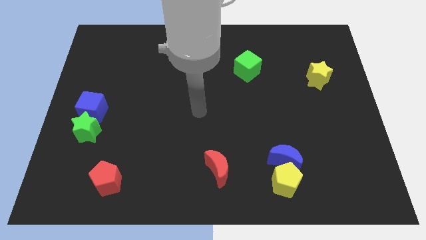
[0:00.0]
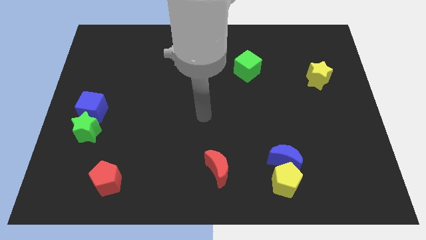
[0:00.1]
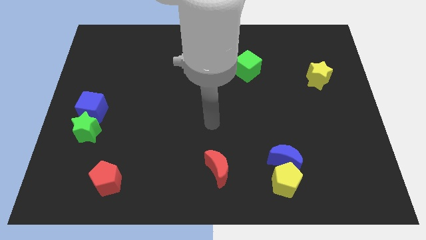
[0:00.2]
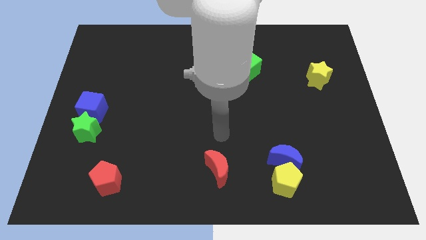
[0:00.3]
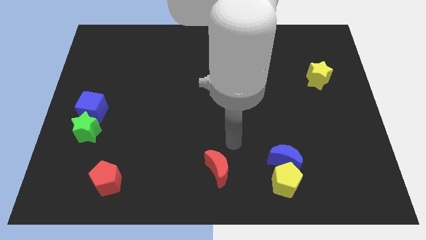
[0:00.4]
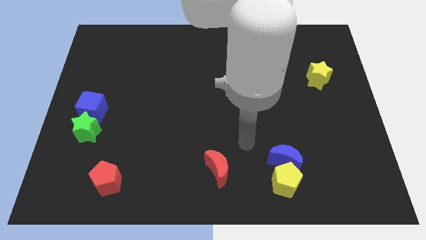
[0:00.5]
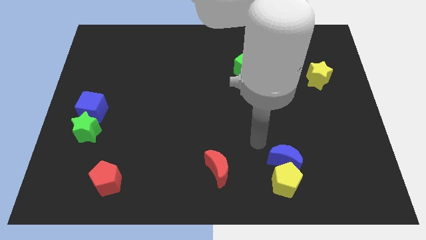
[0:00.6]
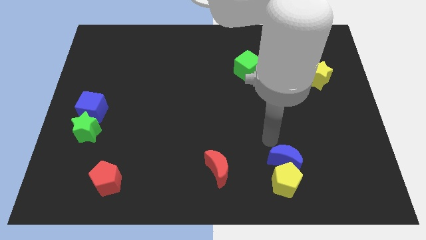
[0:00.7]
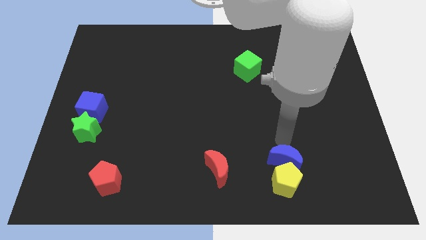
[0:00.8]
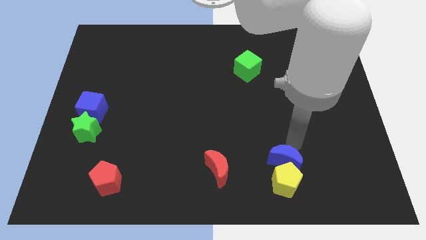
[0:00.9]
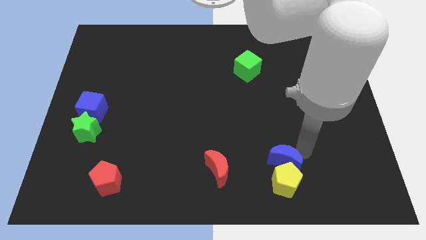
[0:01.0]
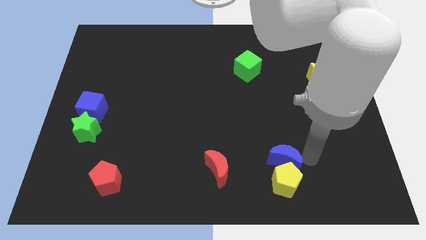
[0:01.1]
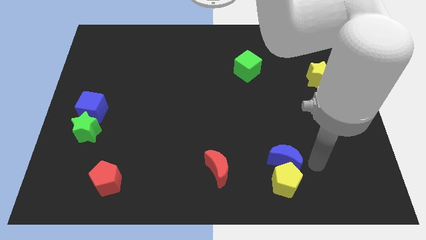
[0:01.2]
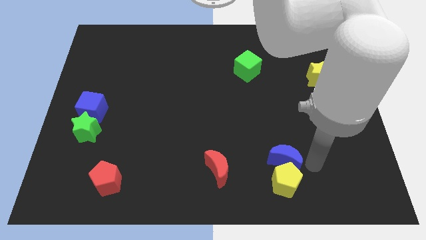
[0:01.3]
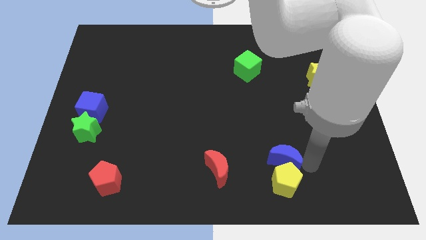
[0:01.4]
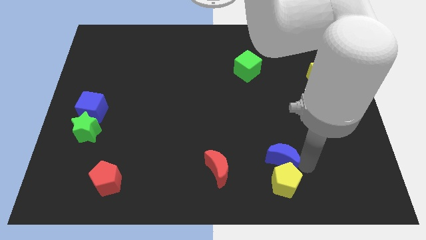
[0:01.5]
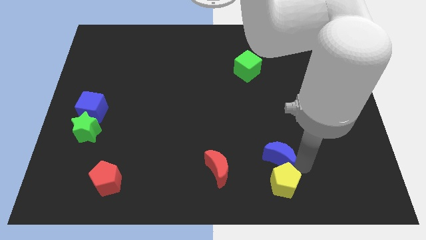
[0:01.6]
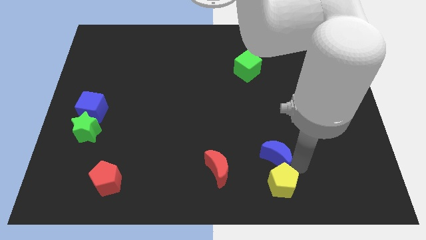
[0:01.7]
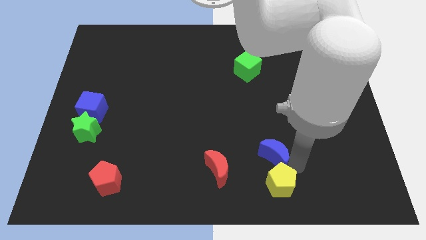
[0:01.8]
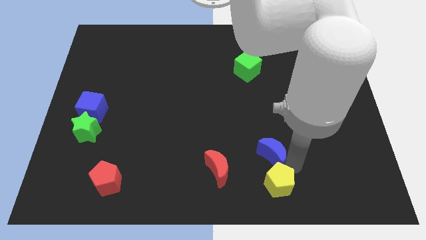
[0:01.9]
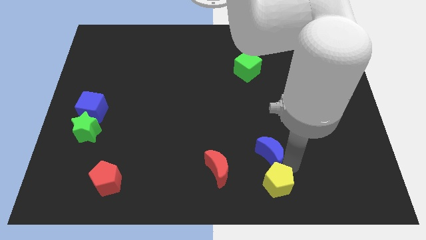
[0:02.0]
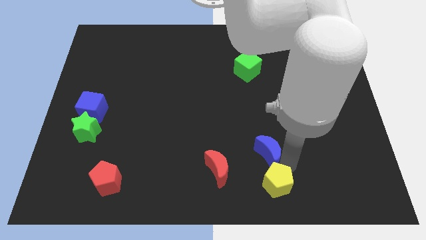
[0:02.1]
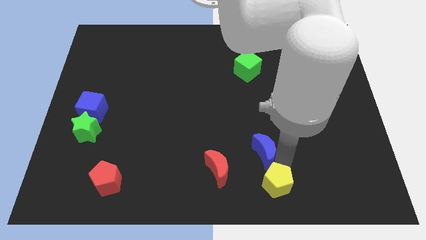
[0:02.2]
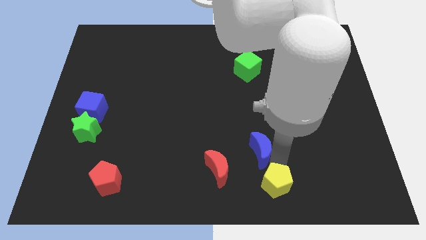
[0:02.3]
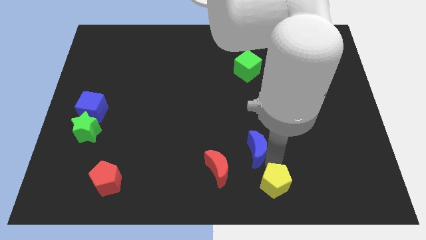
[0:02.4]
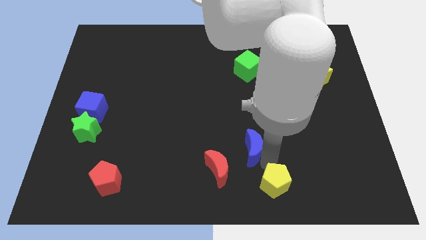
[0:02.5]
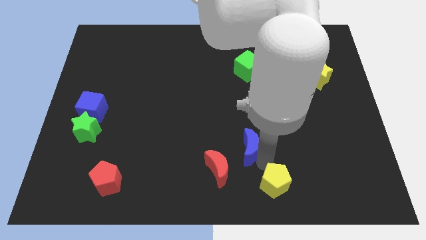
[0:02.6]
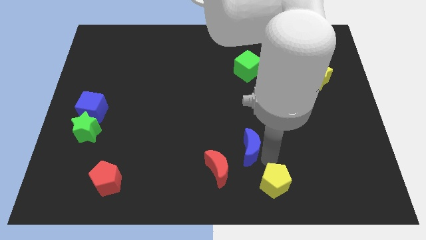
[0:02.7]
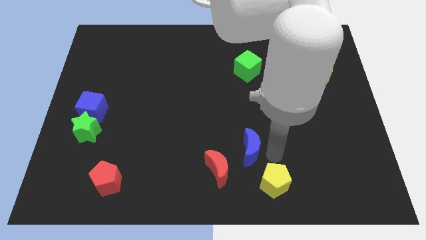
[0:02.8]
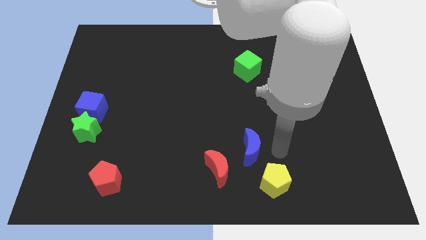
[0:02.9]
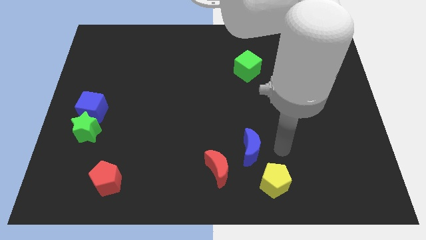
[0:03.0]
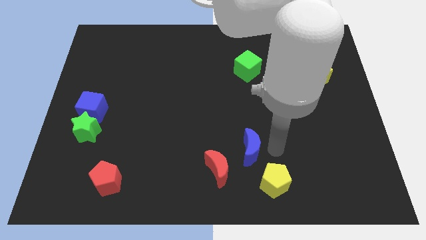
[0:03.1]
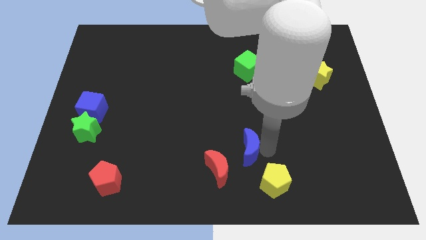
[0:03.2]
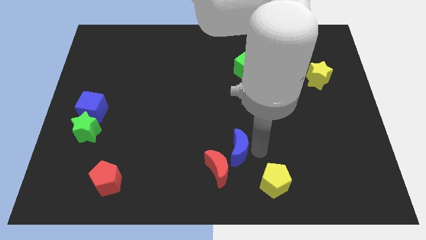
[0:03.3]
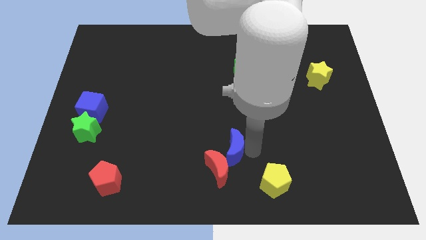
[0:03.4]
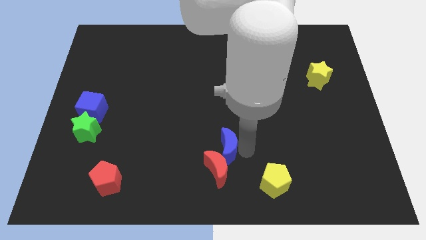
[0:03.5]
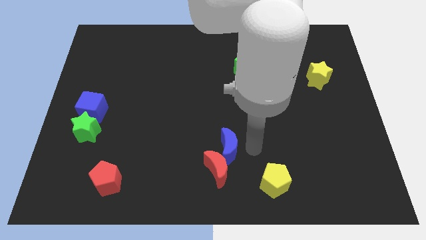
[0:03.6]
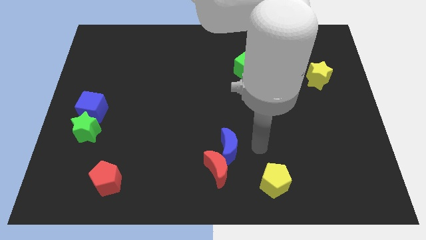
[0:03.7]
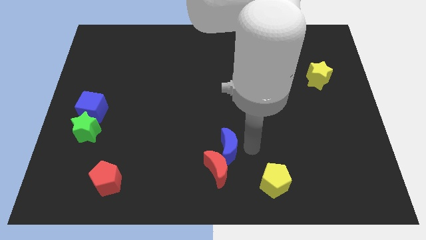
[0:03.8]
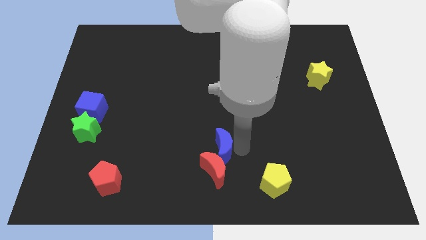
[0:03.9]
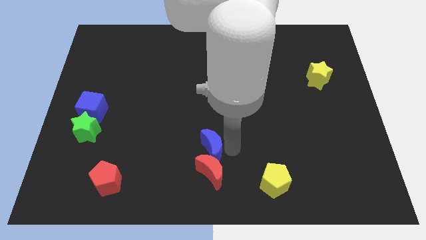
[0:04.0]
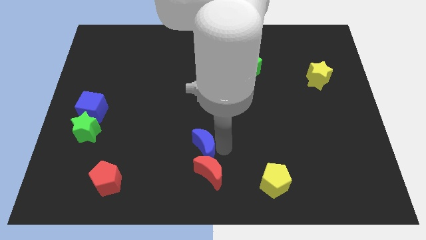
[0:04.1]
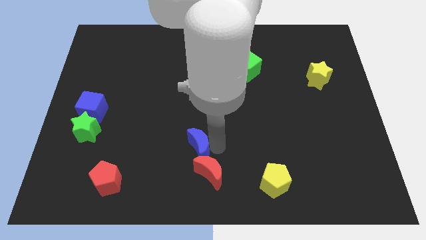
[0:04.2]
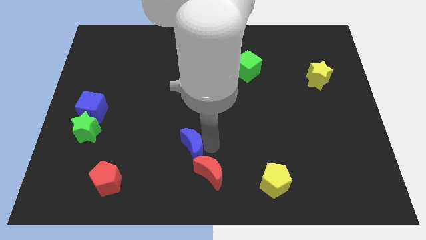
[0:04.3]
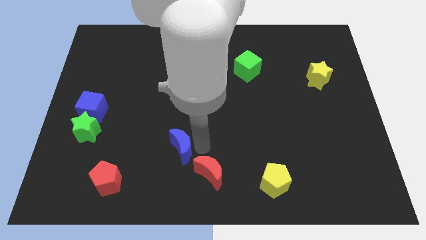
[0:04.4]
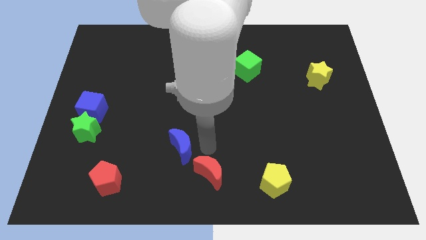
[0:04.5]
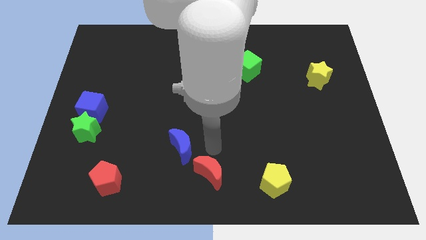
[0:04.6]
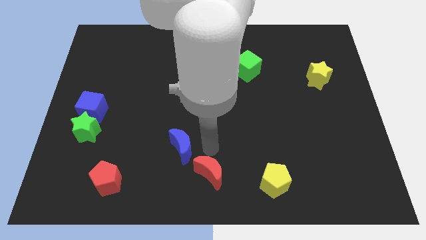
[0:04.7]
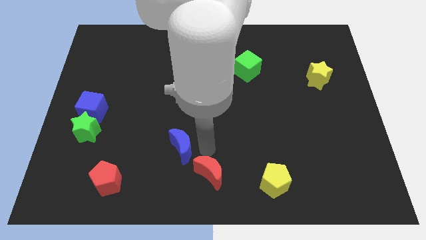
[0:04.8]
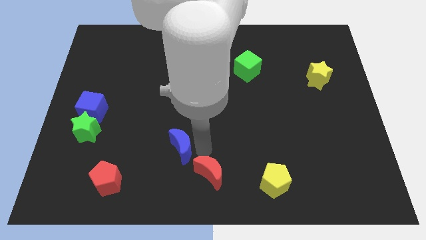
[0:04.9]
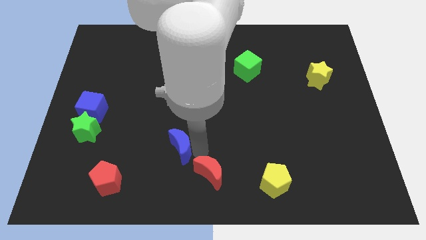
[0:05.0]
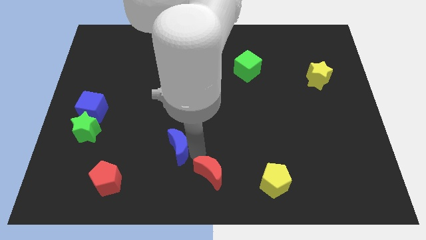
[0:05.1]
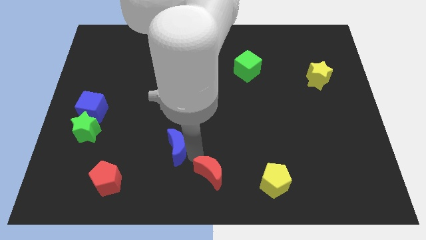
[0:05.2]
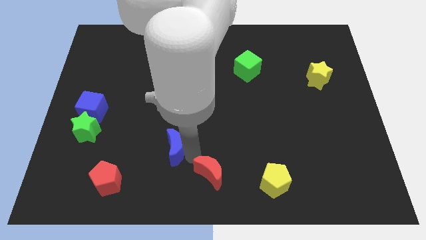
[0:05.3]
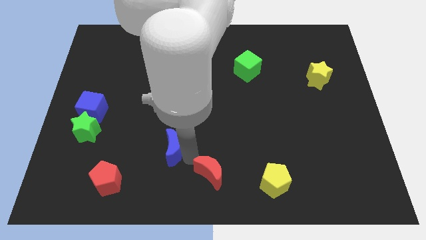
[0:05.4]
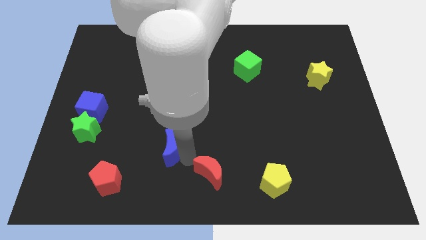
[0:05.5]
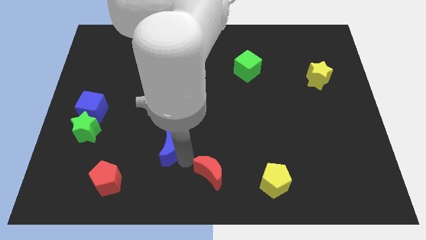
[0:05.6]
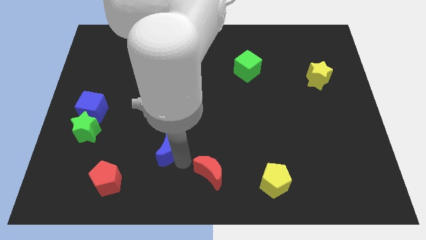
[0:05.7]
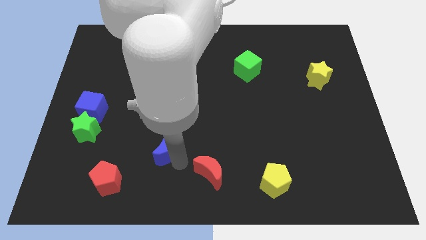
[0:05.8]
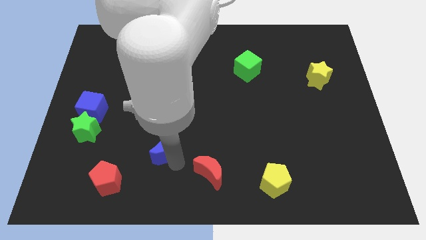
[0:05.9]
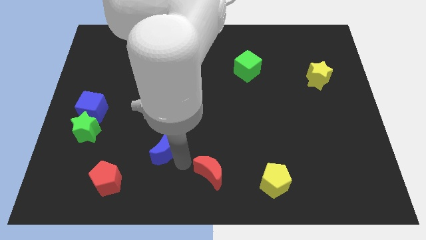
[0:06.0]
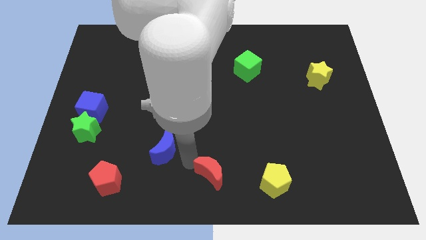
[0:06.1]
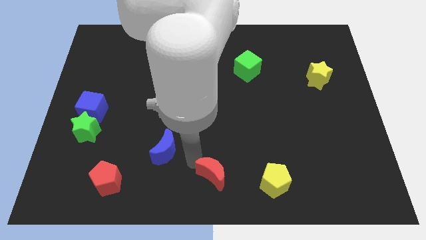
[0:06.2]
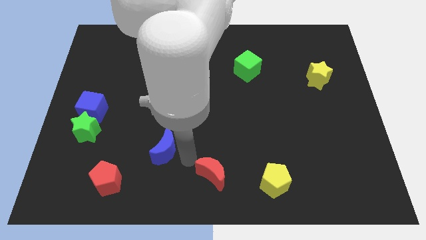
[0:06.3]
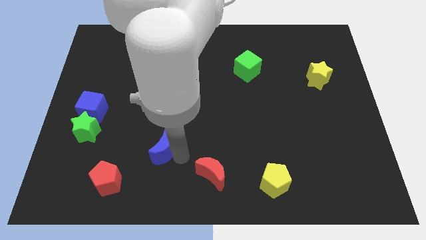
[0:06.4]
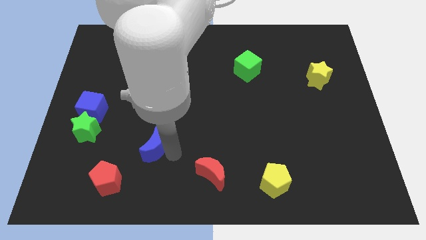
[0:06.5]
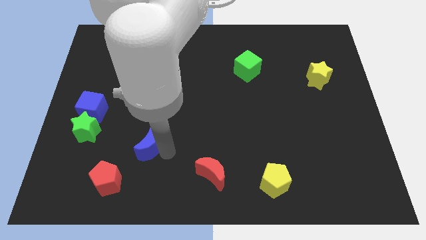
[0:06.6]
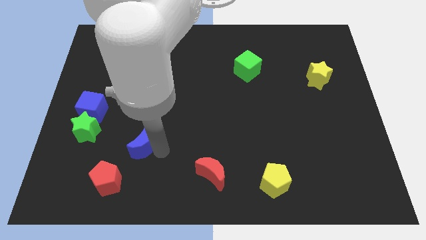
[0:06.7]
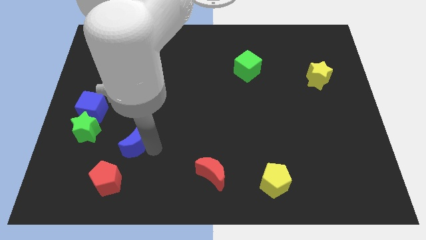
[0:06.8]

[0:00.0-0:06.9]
slide the blue moon above the red pentagon

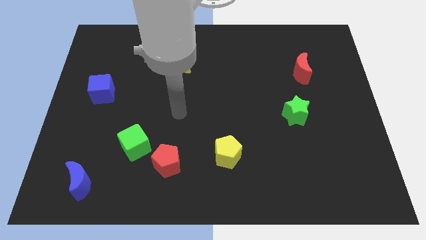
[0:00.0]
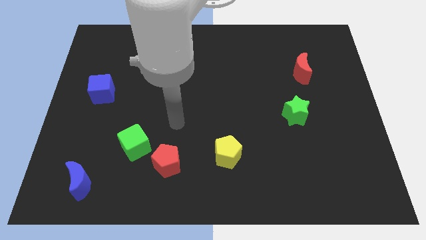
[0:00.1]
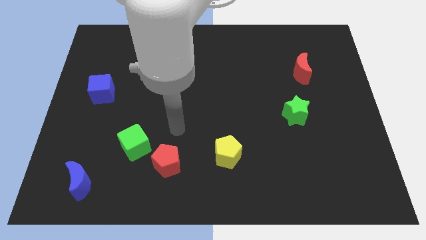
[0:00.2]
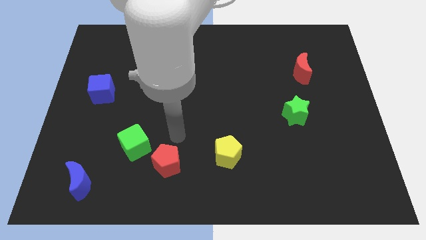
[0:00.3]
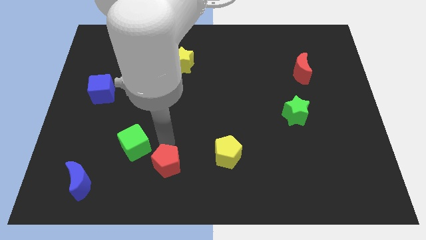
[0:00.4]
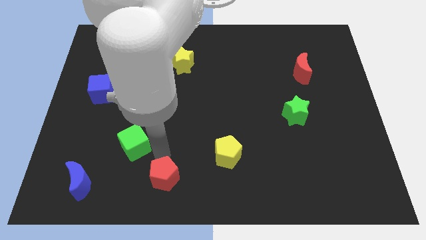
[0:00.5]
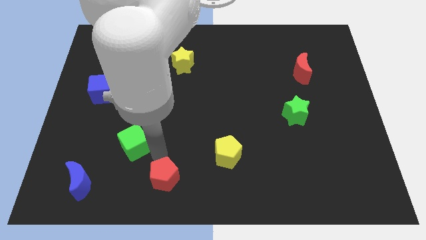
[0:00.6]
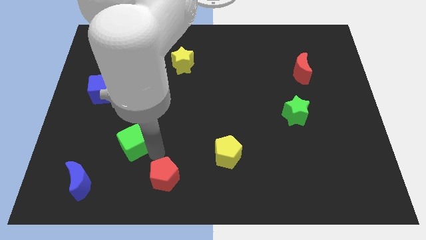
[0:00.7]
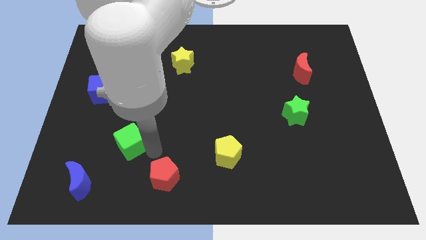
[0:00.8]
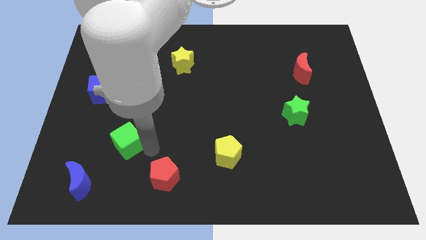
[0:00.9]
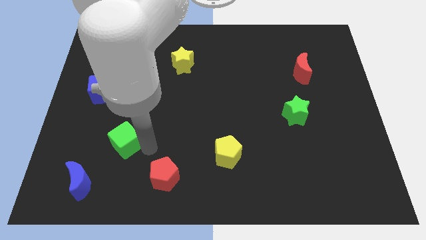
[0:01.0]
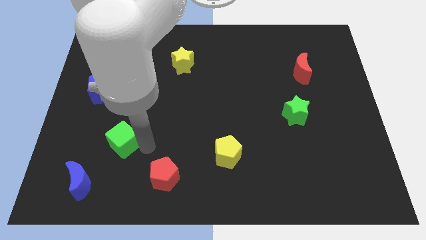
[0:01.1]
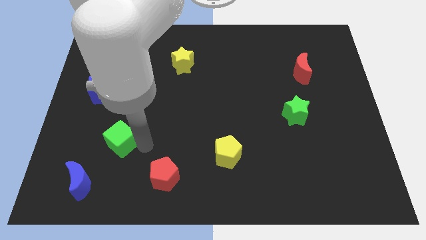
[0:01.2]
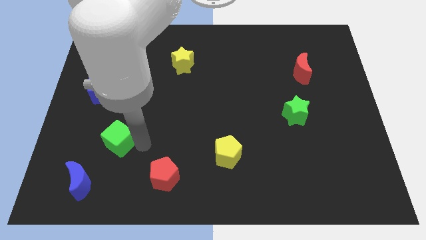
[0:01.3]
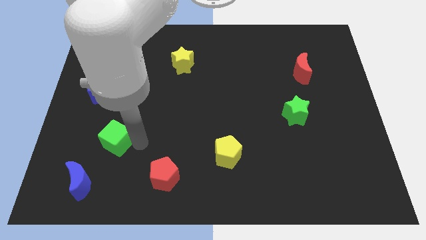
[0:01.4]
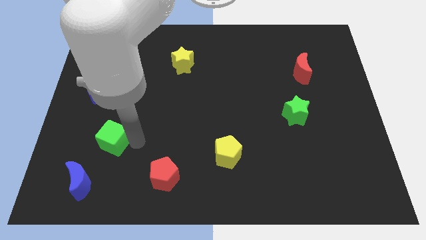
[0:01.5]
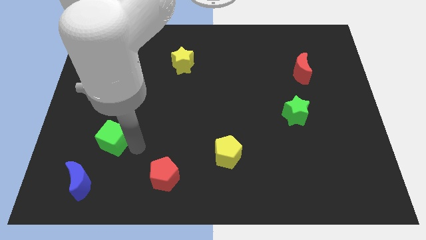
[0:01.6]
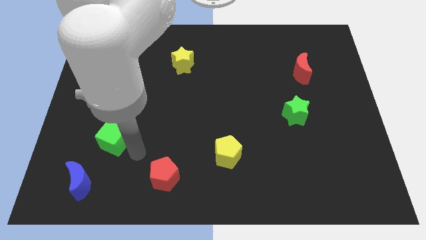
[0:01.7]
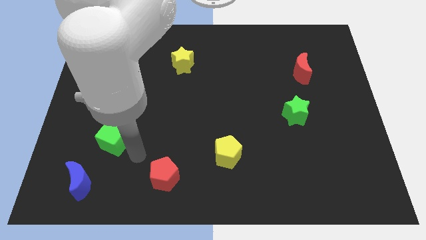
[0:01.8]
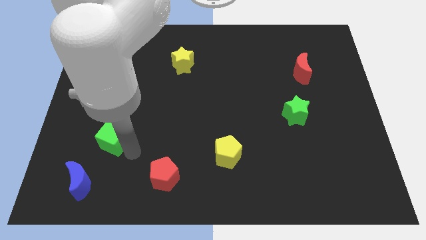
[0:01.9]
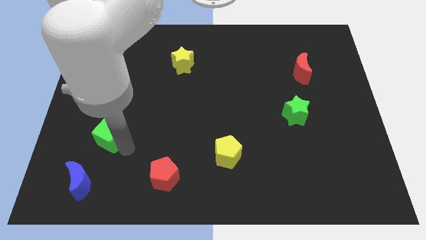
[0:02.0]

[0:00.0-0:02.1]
slide the green cube to the bottom side of the blue cube
